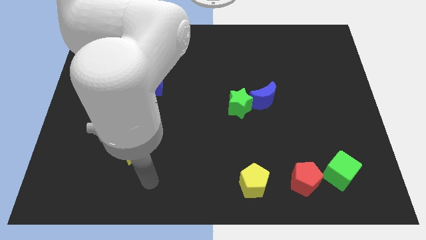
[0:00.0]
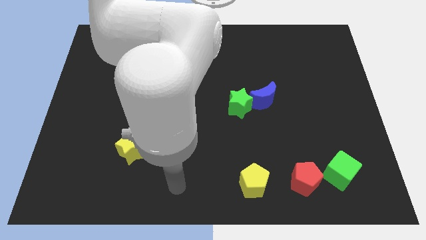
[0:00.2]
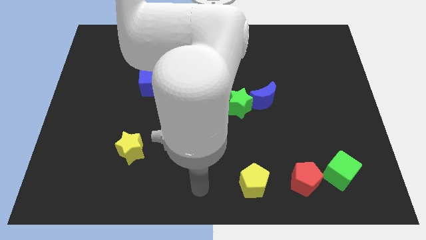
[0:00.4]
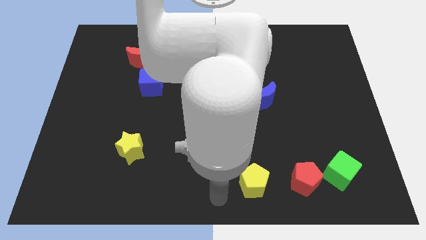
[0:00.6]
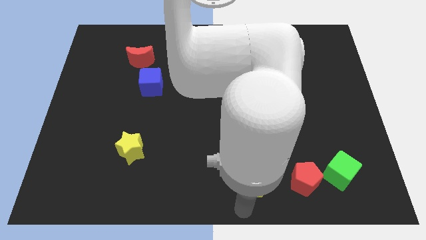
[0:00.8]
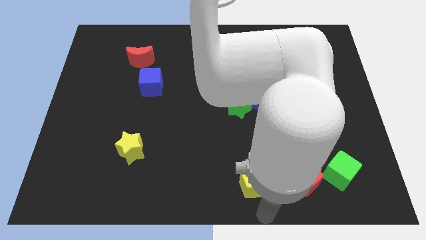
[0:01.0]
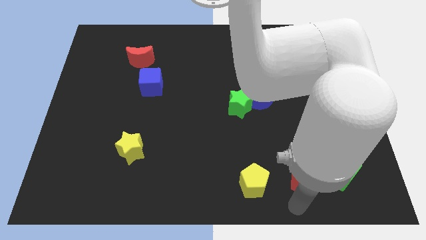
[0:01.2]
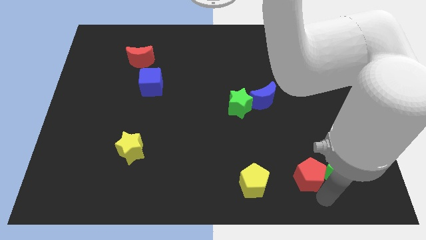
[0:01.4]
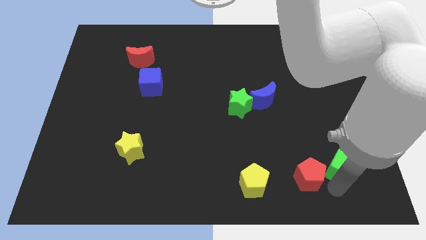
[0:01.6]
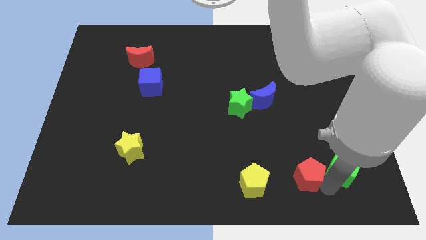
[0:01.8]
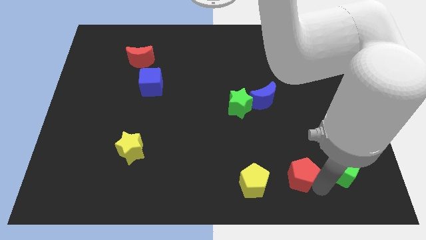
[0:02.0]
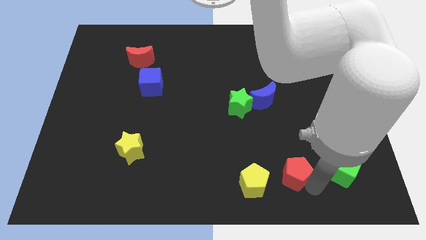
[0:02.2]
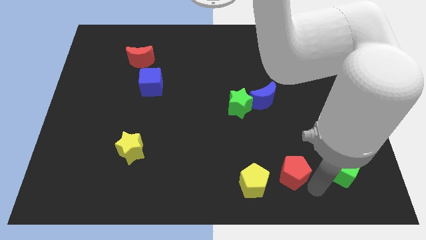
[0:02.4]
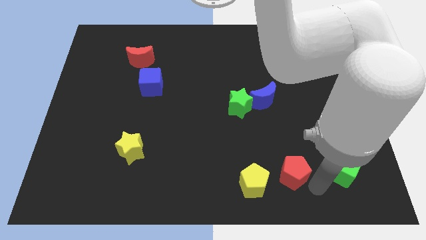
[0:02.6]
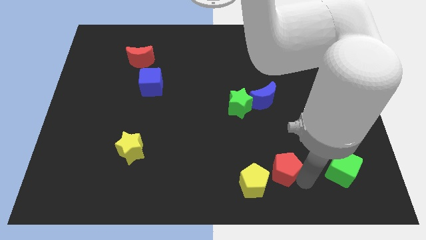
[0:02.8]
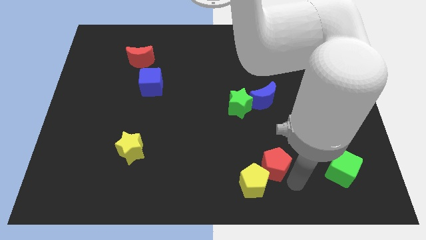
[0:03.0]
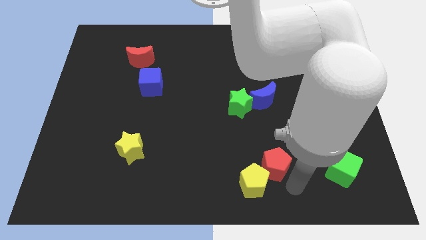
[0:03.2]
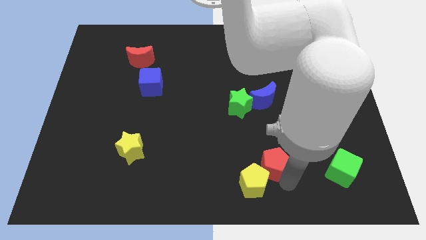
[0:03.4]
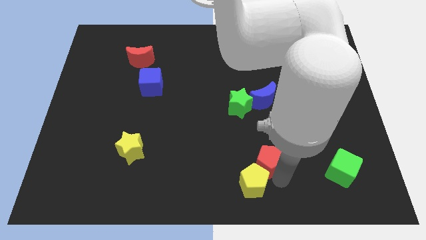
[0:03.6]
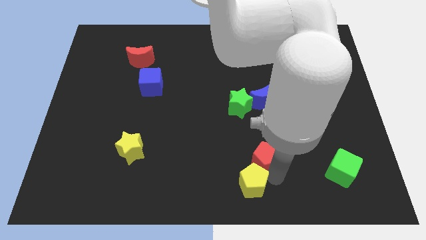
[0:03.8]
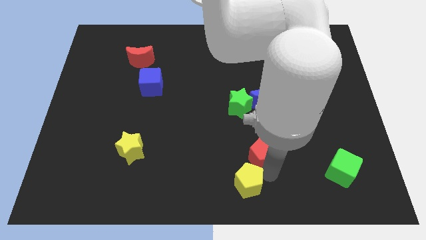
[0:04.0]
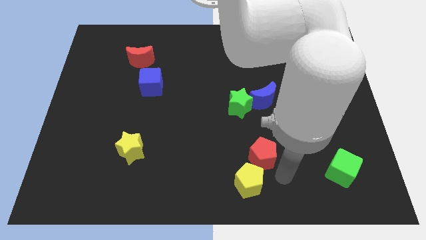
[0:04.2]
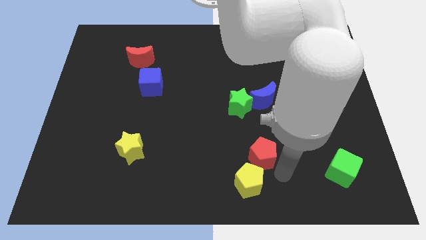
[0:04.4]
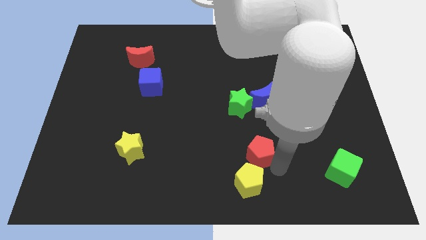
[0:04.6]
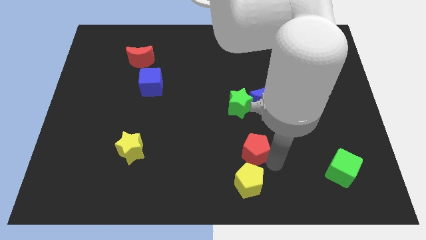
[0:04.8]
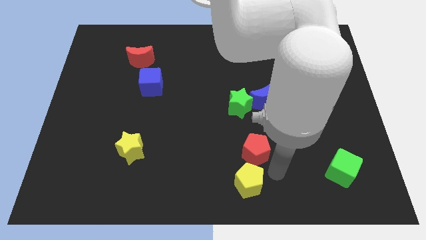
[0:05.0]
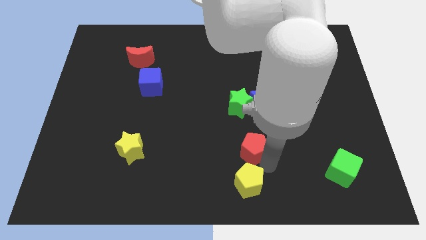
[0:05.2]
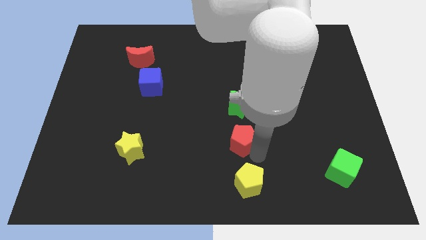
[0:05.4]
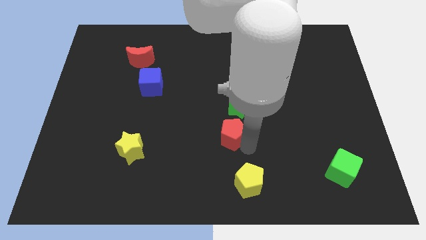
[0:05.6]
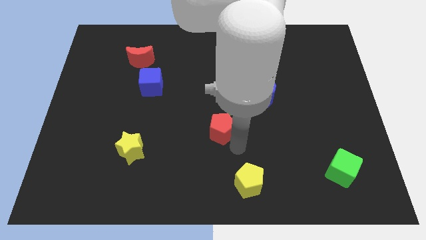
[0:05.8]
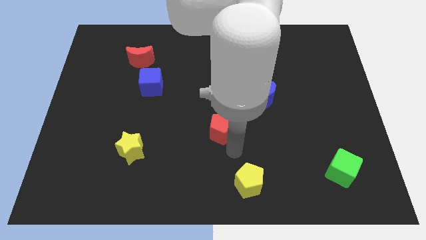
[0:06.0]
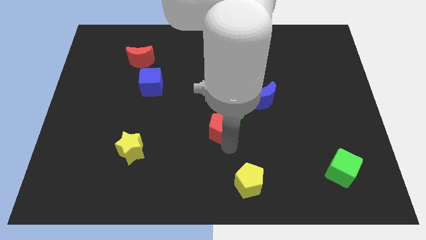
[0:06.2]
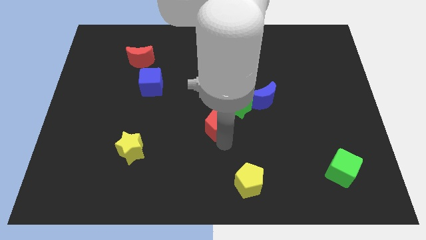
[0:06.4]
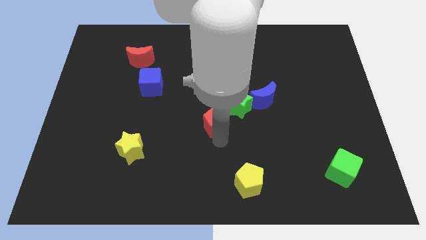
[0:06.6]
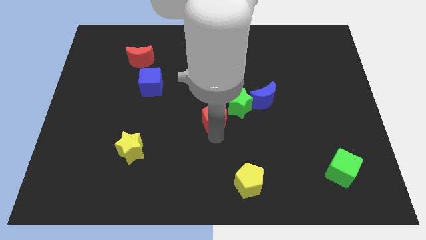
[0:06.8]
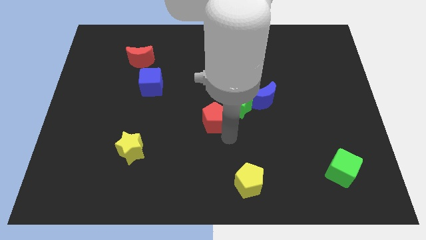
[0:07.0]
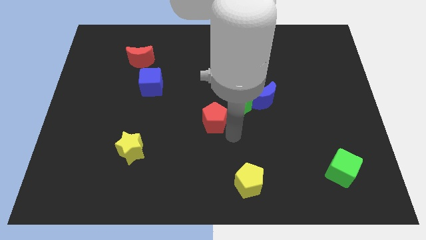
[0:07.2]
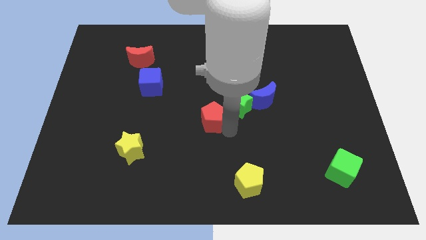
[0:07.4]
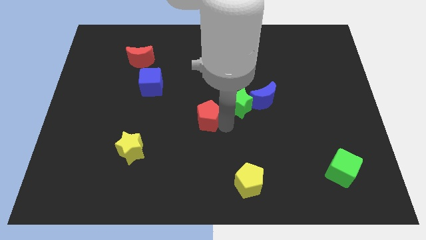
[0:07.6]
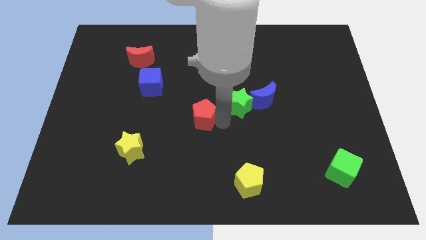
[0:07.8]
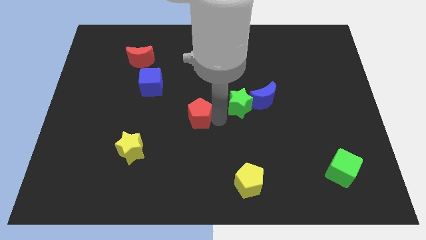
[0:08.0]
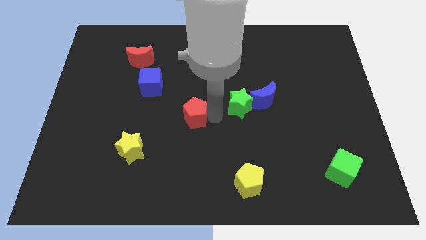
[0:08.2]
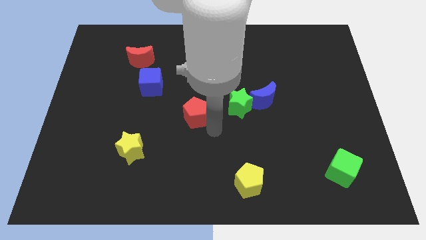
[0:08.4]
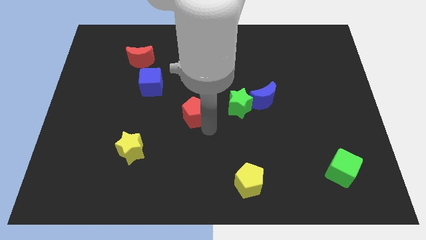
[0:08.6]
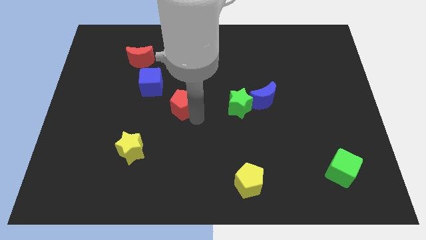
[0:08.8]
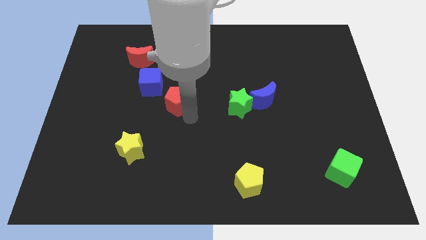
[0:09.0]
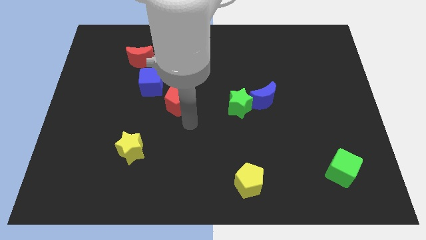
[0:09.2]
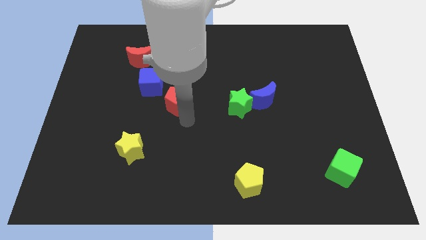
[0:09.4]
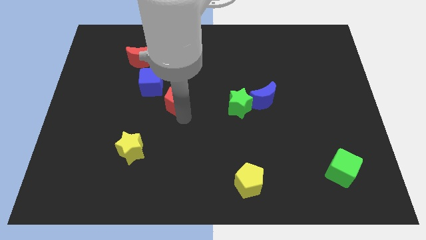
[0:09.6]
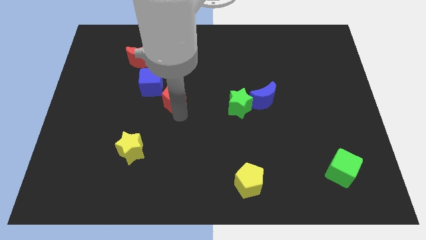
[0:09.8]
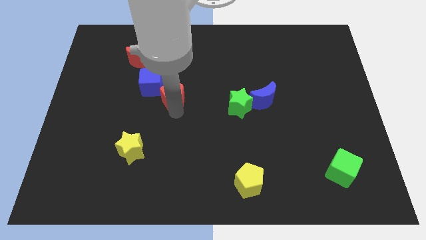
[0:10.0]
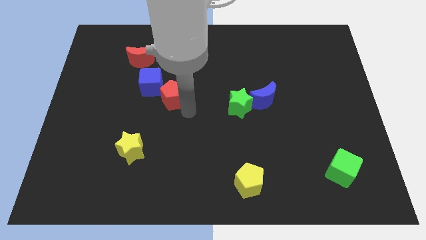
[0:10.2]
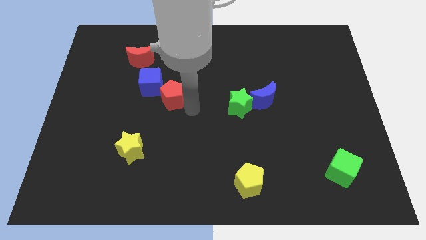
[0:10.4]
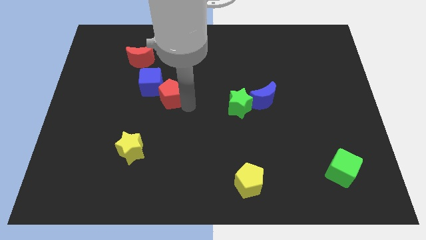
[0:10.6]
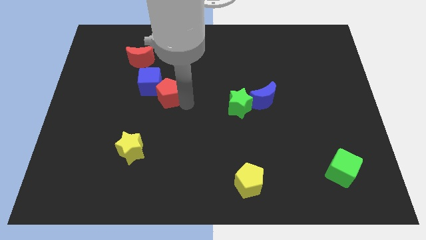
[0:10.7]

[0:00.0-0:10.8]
slide the red pentagon next to the blue cube

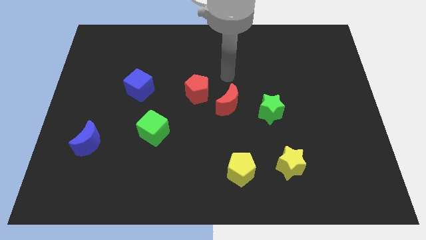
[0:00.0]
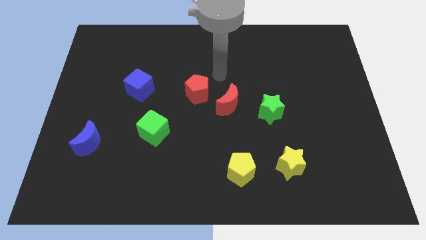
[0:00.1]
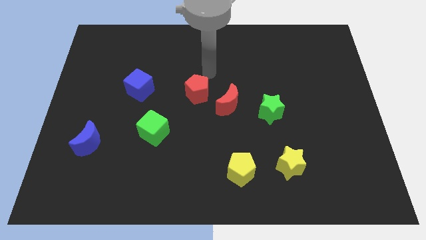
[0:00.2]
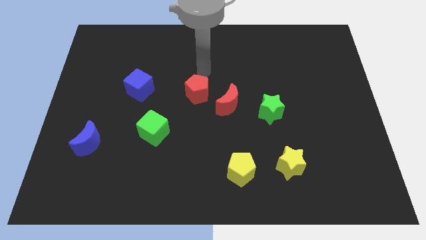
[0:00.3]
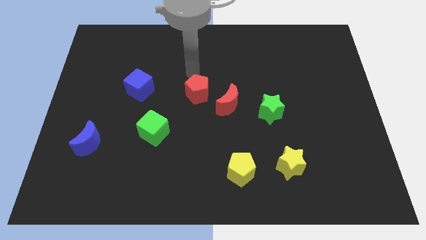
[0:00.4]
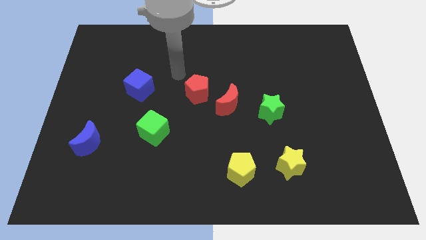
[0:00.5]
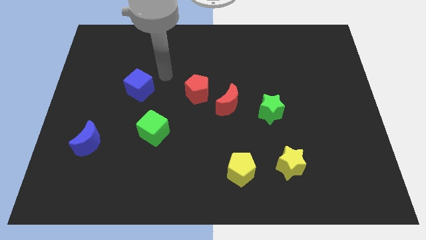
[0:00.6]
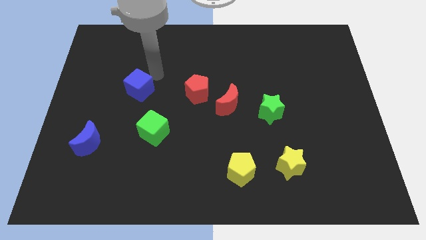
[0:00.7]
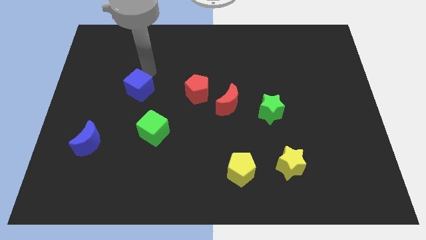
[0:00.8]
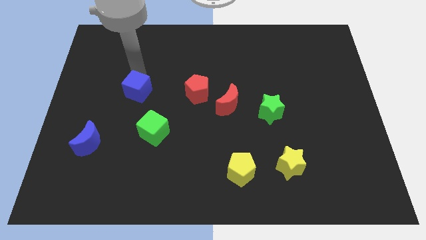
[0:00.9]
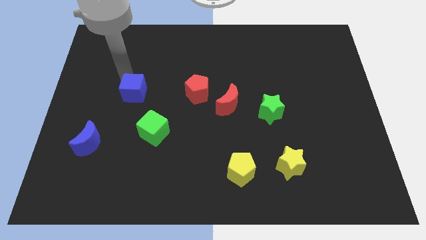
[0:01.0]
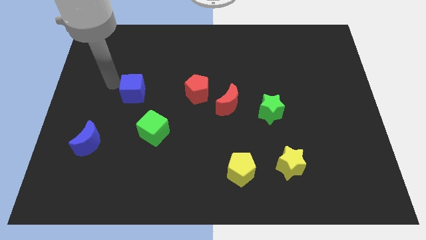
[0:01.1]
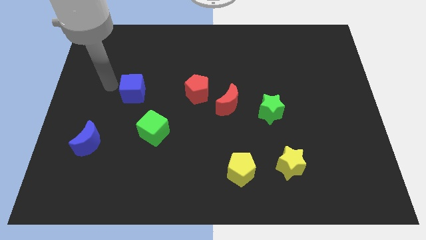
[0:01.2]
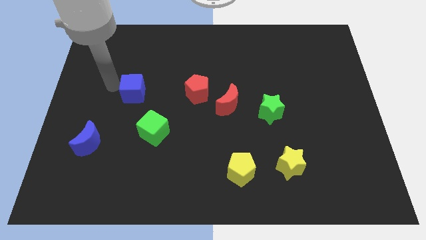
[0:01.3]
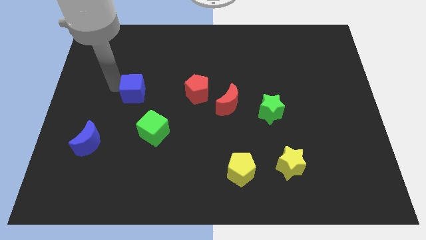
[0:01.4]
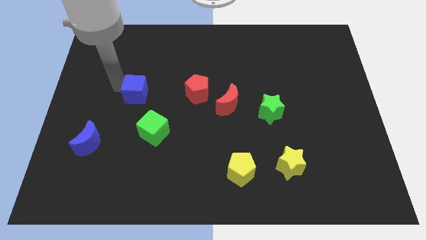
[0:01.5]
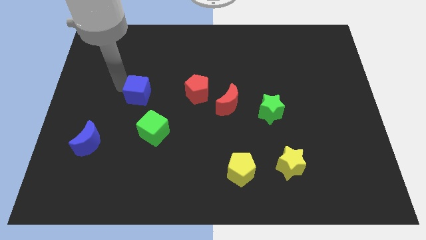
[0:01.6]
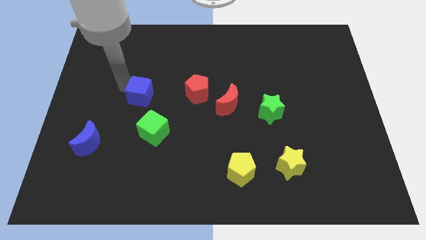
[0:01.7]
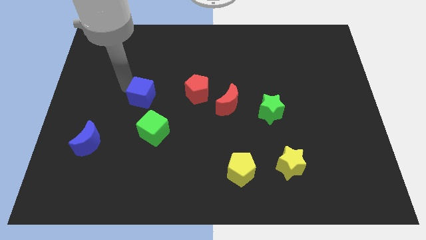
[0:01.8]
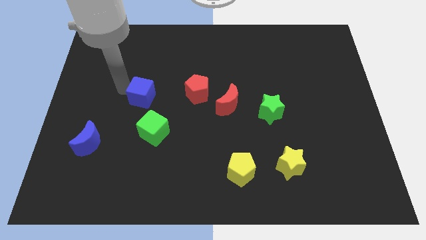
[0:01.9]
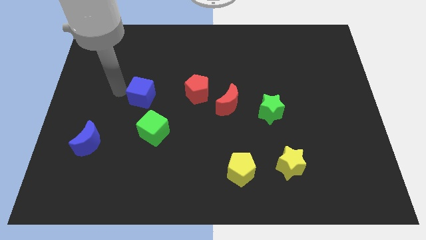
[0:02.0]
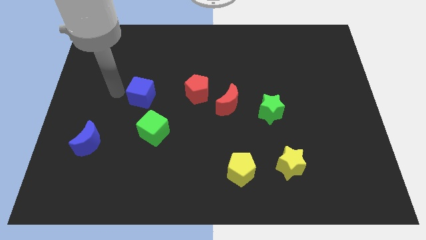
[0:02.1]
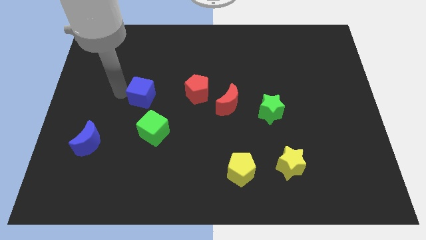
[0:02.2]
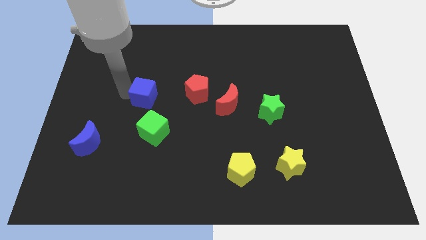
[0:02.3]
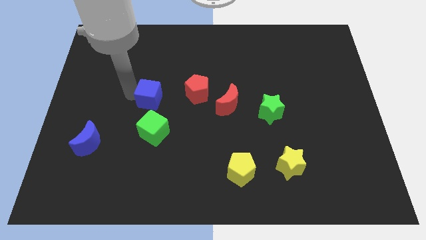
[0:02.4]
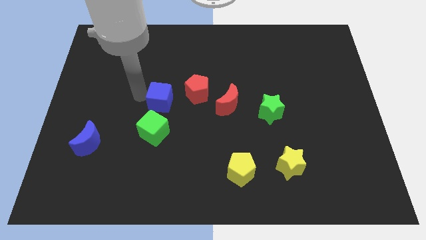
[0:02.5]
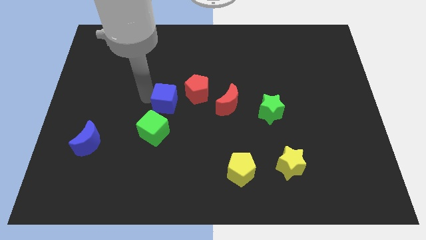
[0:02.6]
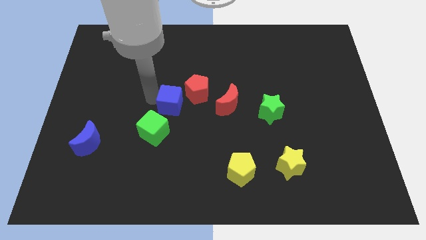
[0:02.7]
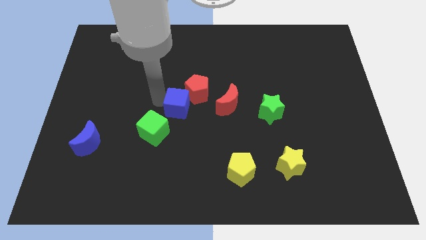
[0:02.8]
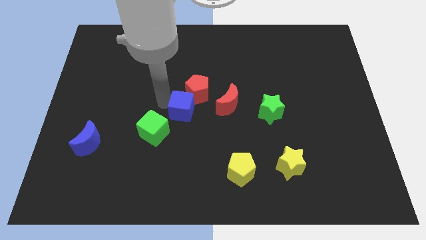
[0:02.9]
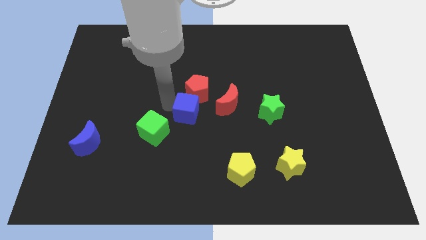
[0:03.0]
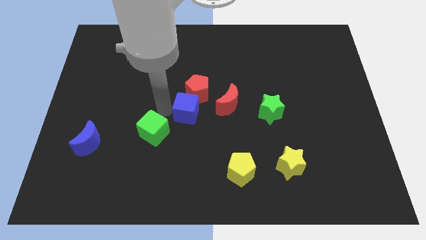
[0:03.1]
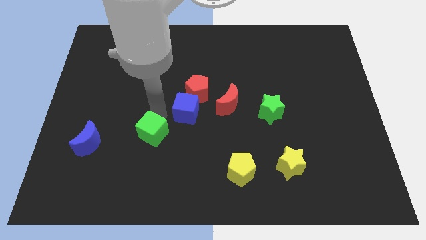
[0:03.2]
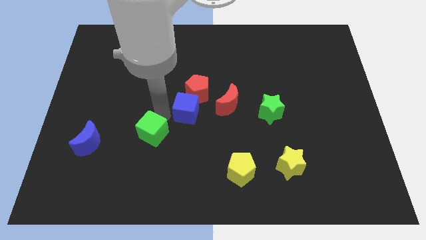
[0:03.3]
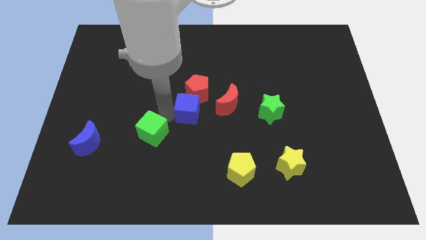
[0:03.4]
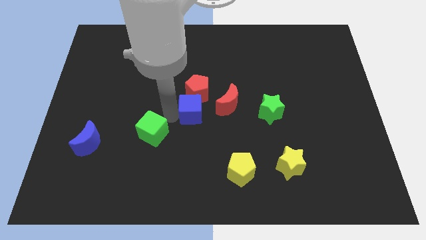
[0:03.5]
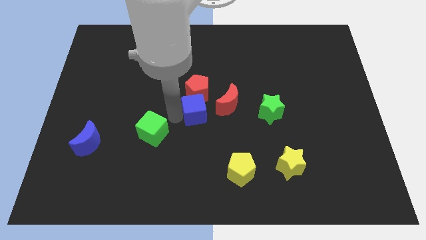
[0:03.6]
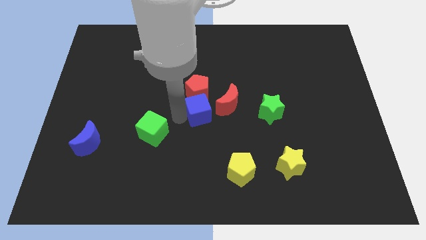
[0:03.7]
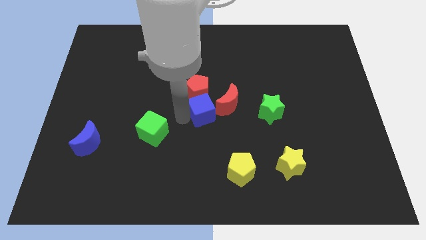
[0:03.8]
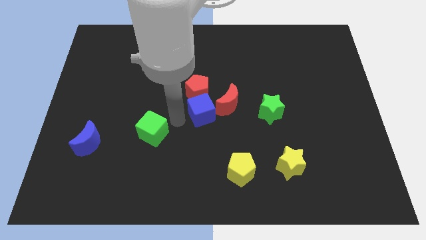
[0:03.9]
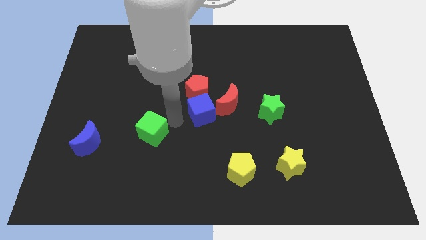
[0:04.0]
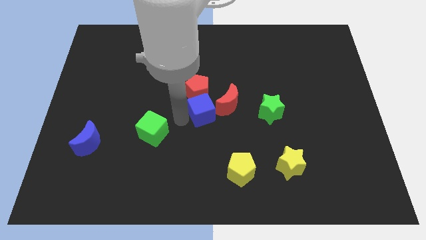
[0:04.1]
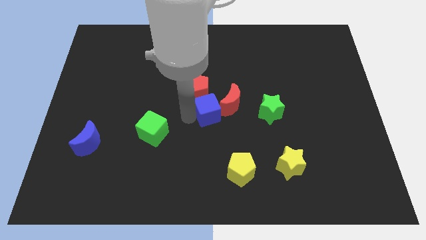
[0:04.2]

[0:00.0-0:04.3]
push the blue cube towards the red moon
